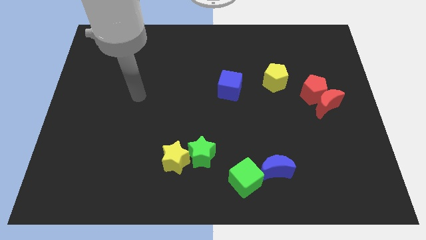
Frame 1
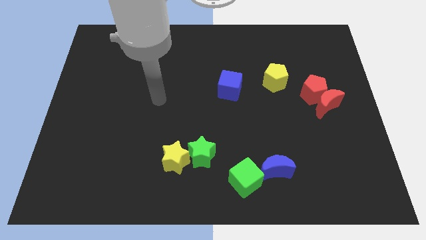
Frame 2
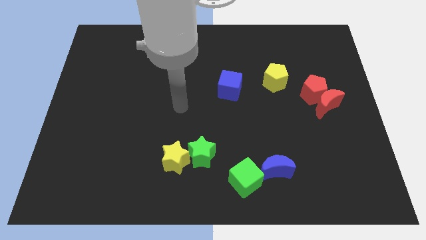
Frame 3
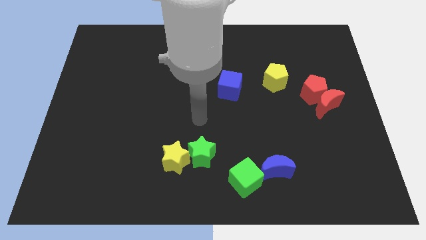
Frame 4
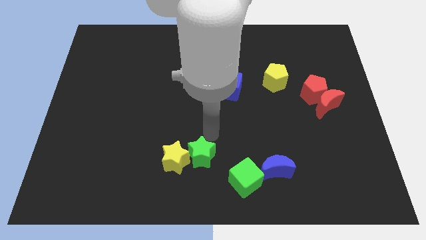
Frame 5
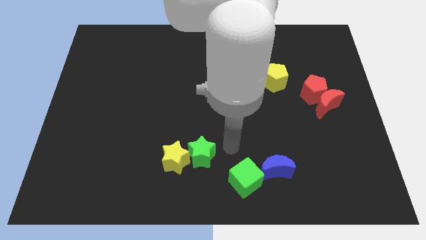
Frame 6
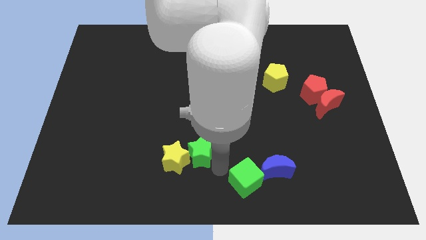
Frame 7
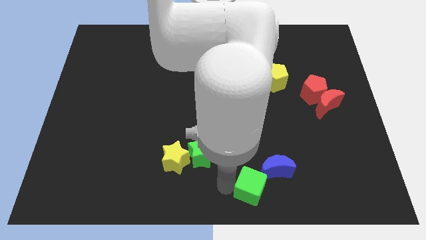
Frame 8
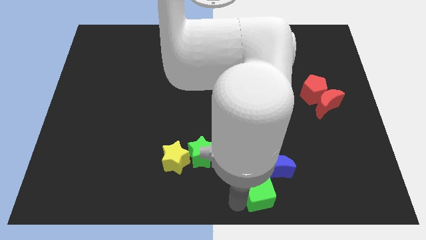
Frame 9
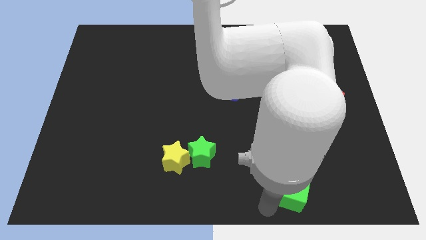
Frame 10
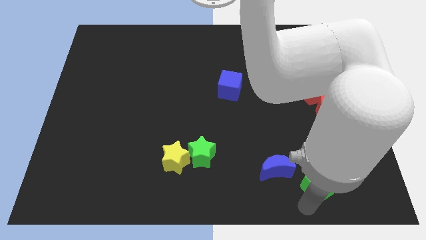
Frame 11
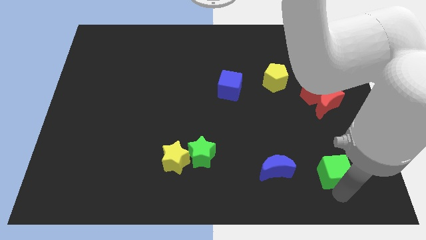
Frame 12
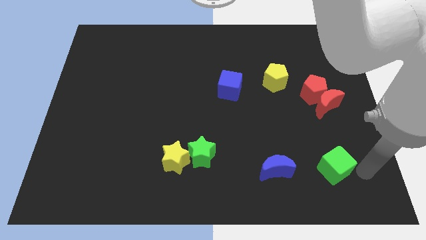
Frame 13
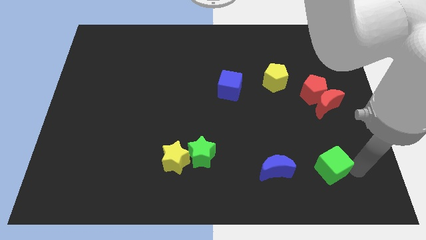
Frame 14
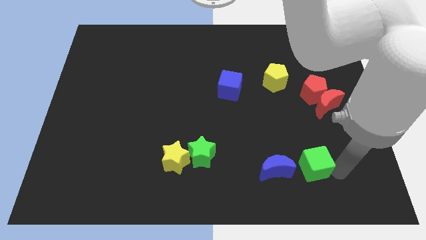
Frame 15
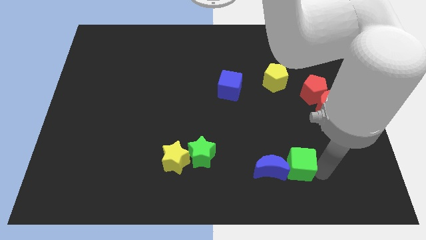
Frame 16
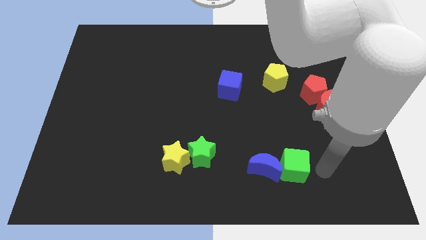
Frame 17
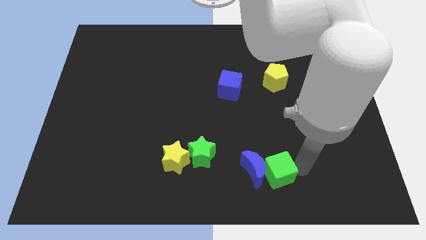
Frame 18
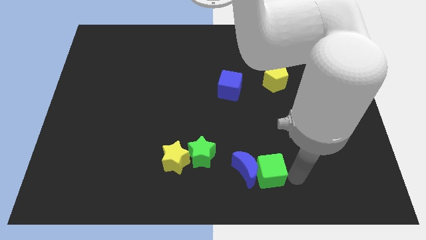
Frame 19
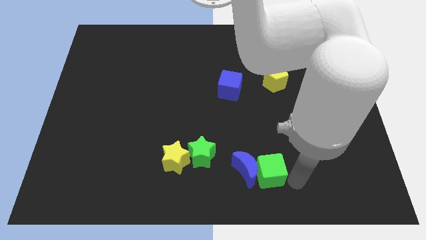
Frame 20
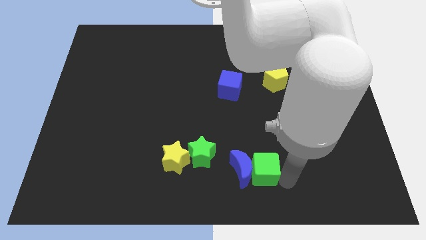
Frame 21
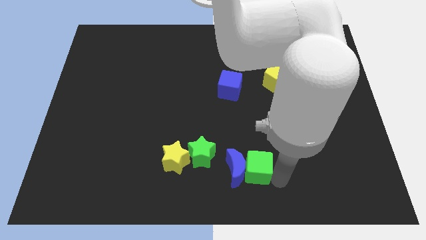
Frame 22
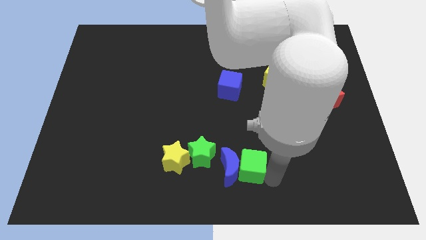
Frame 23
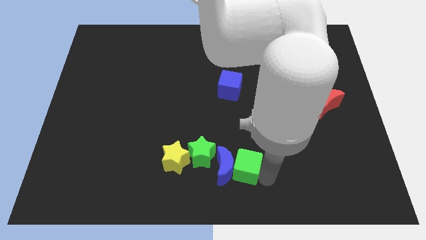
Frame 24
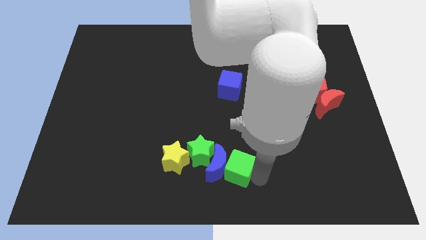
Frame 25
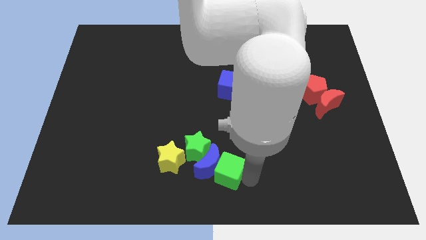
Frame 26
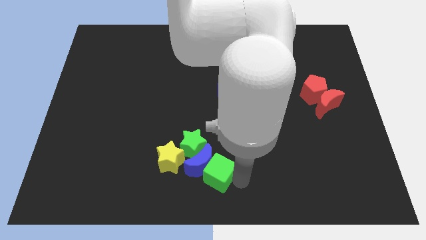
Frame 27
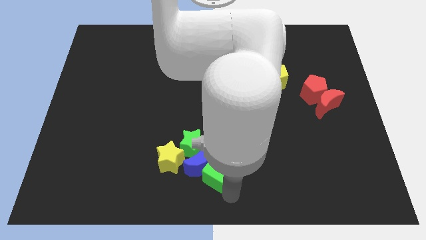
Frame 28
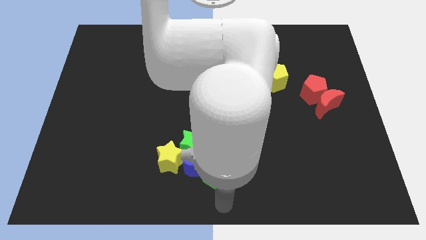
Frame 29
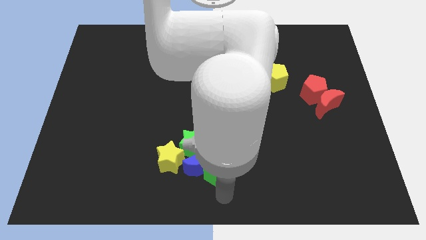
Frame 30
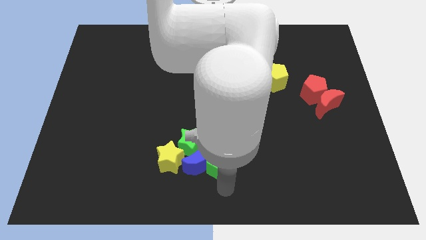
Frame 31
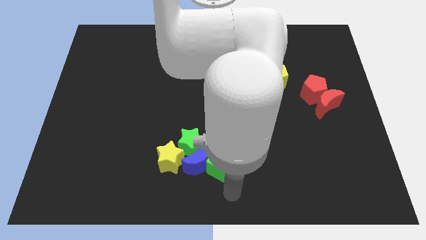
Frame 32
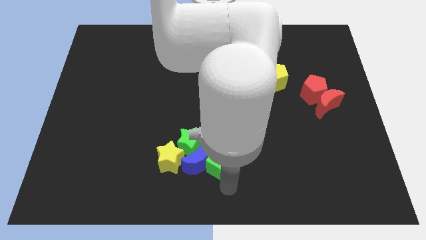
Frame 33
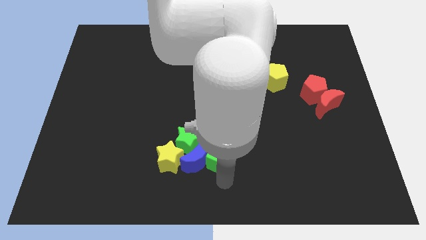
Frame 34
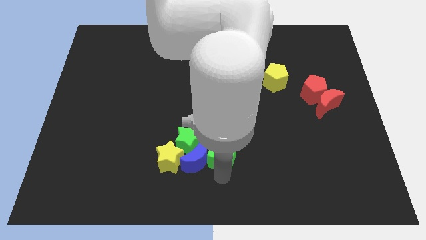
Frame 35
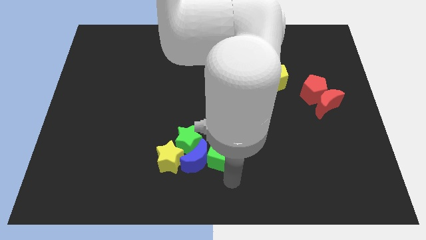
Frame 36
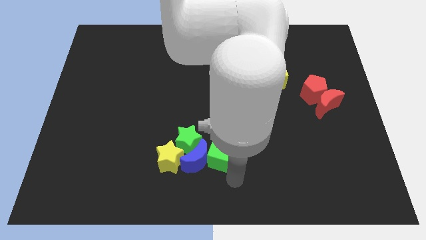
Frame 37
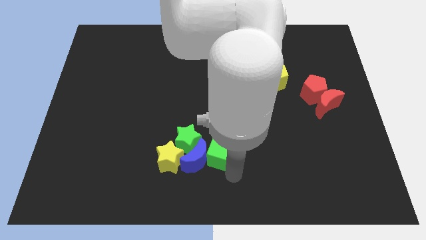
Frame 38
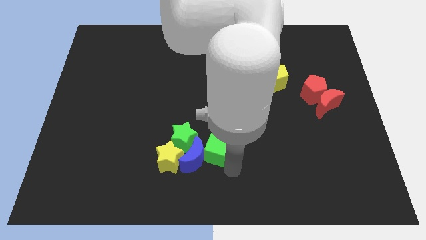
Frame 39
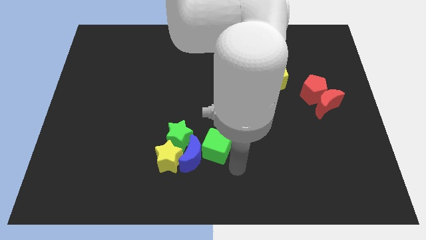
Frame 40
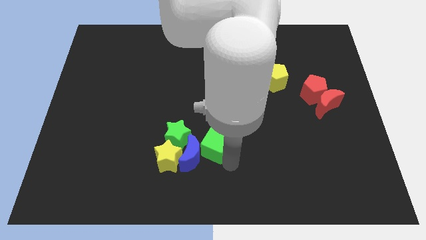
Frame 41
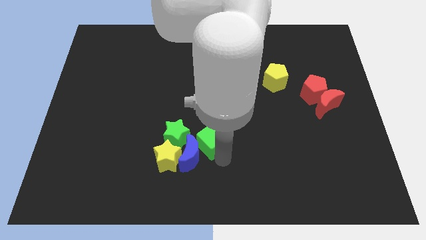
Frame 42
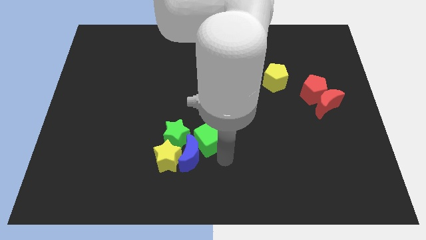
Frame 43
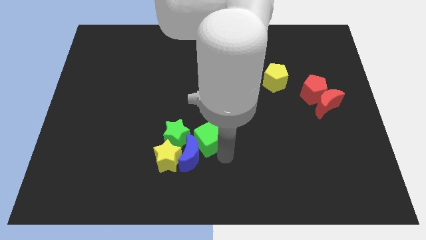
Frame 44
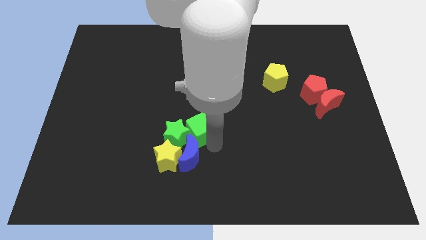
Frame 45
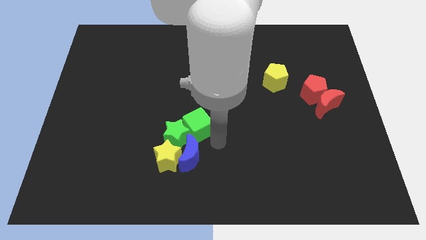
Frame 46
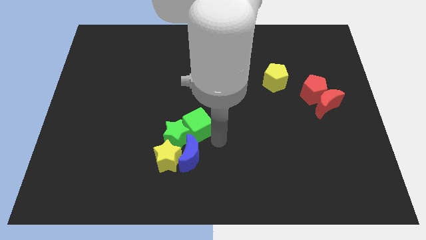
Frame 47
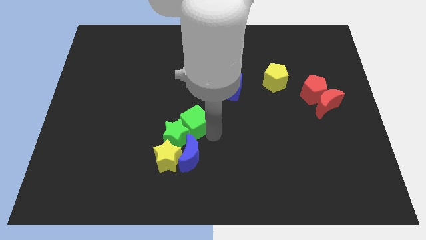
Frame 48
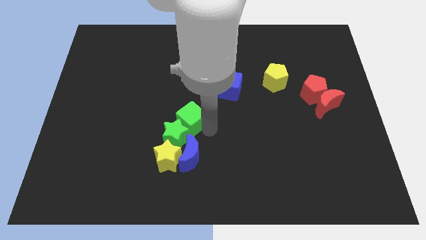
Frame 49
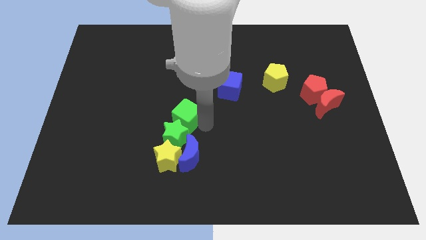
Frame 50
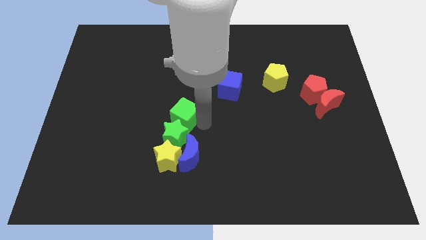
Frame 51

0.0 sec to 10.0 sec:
push the green cube upwards and to the left

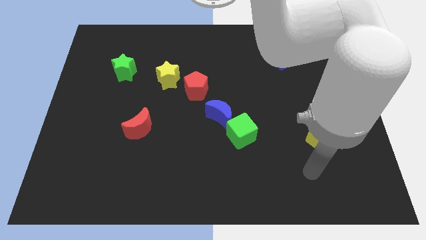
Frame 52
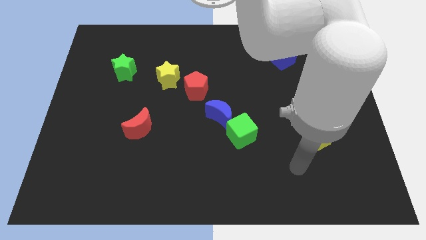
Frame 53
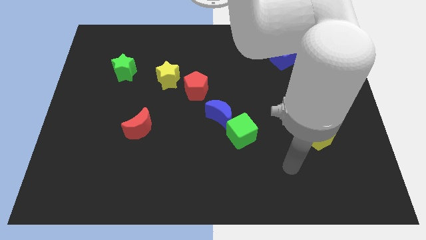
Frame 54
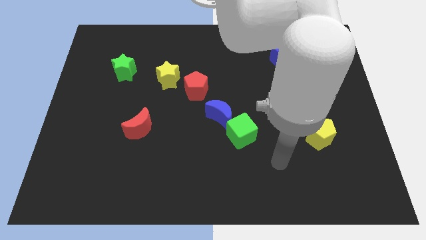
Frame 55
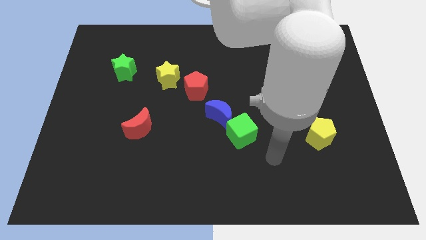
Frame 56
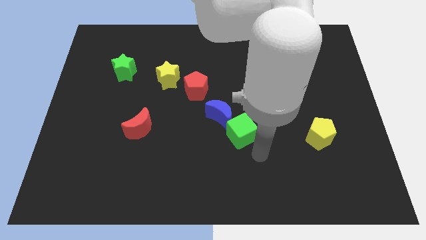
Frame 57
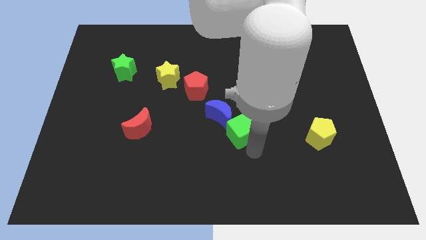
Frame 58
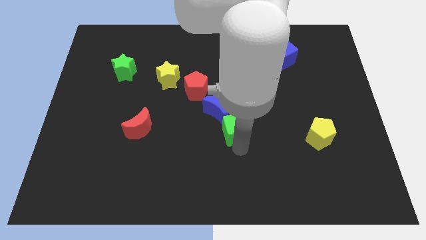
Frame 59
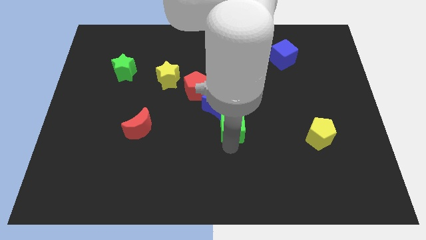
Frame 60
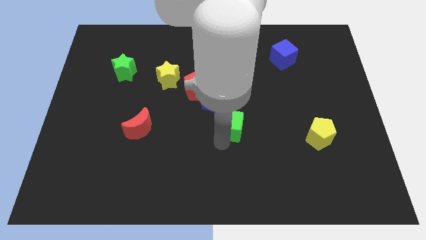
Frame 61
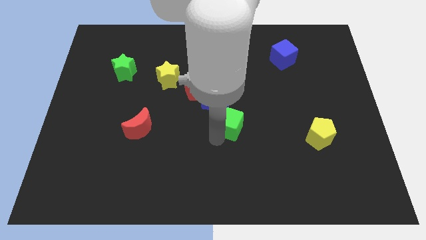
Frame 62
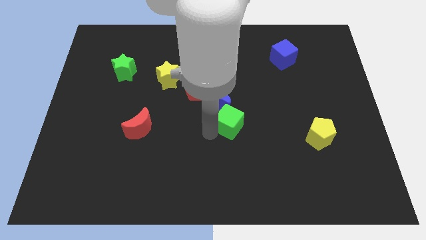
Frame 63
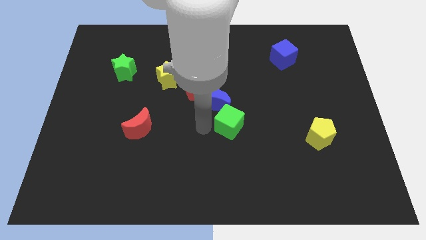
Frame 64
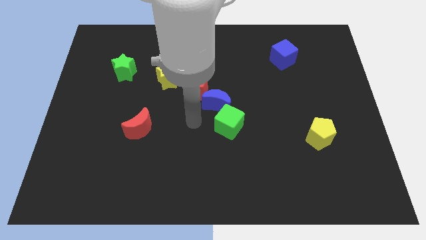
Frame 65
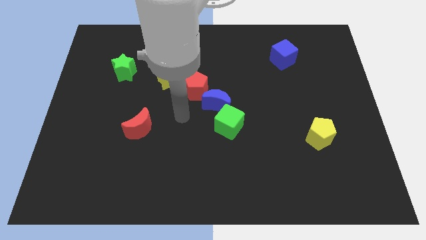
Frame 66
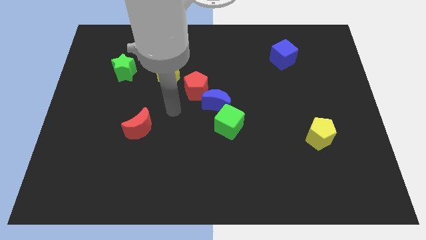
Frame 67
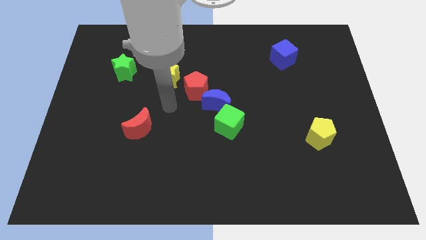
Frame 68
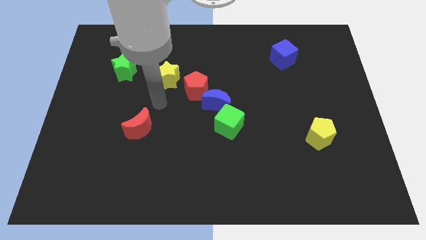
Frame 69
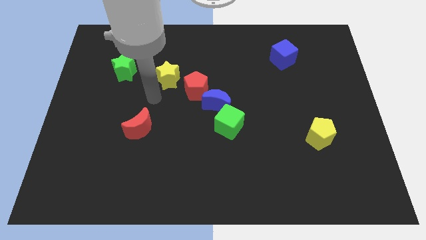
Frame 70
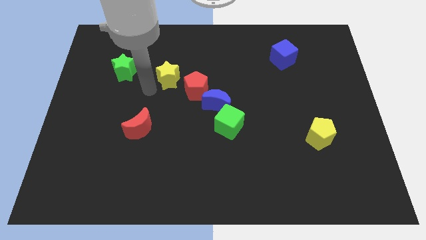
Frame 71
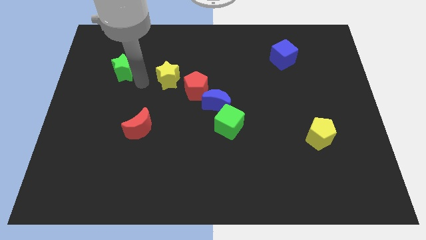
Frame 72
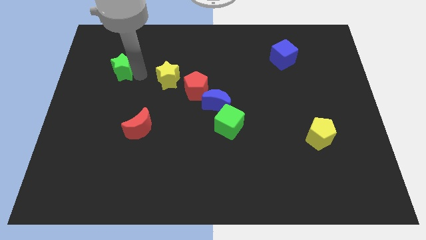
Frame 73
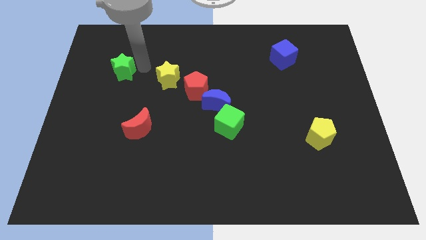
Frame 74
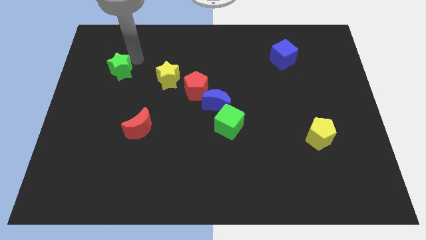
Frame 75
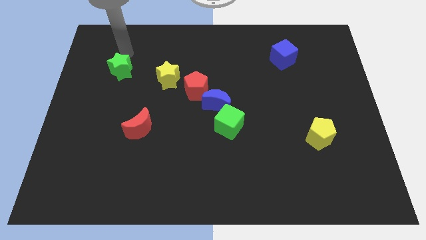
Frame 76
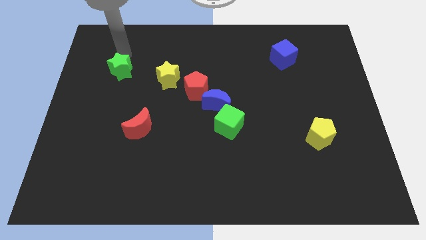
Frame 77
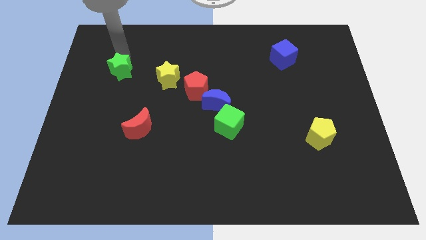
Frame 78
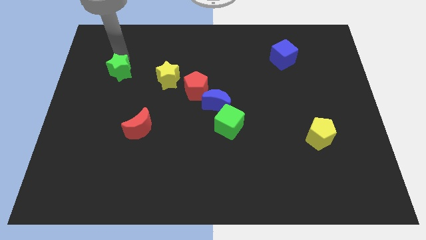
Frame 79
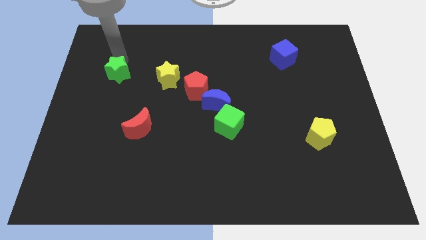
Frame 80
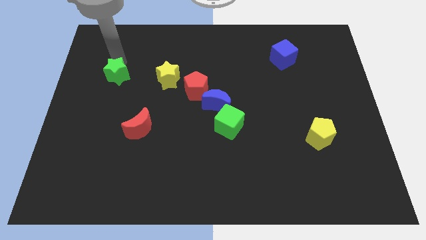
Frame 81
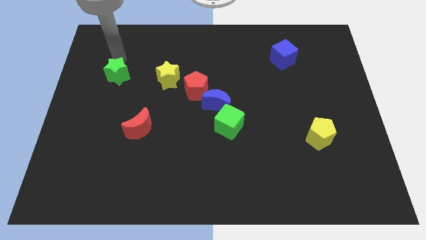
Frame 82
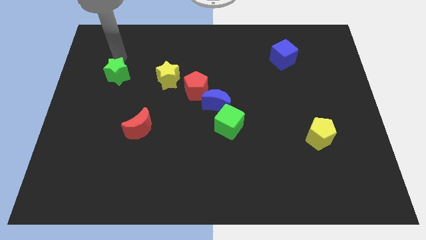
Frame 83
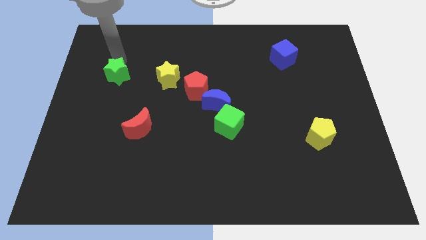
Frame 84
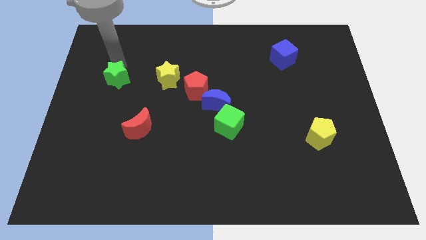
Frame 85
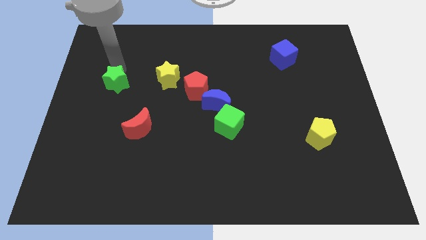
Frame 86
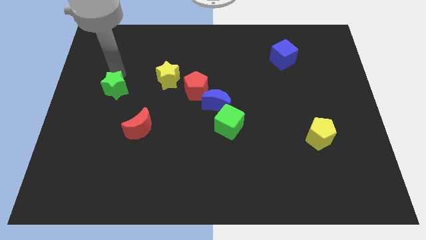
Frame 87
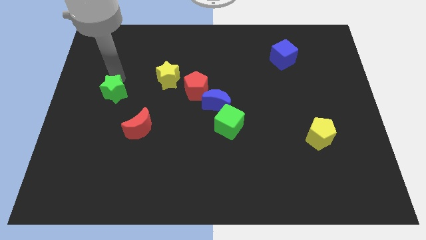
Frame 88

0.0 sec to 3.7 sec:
slightly push the green star down
